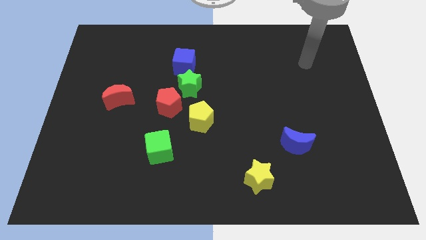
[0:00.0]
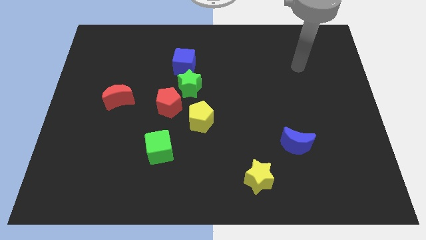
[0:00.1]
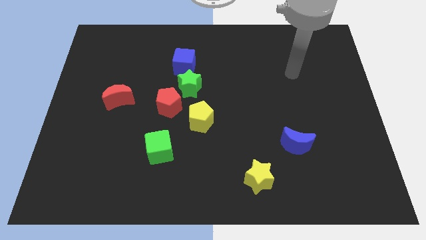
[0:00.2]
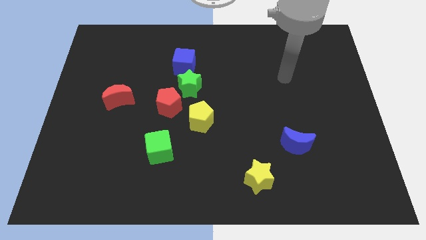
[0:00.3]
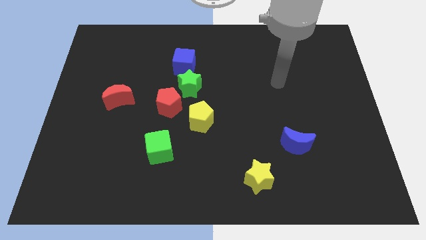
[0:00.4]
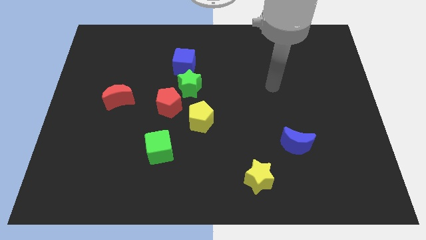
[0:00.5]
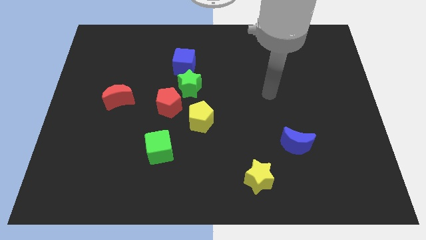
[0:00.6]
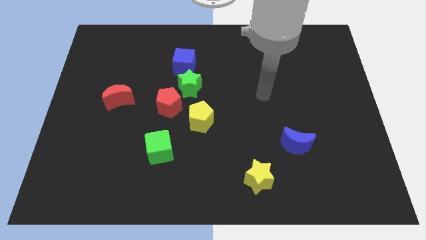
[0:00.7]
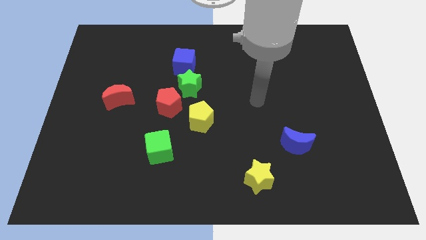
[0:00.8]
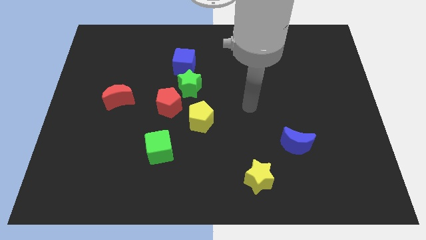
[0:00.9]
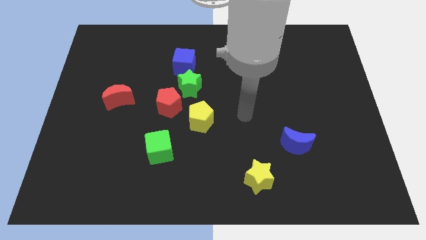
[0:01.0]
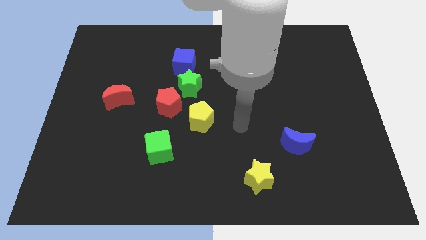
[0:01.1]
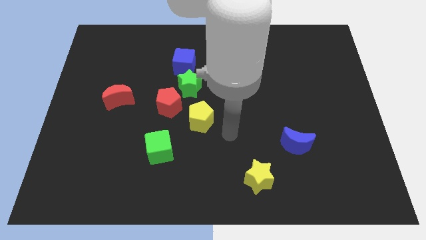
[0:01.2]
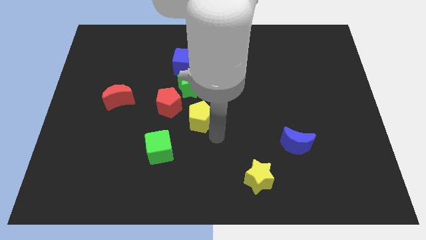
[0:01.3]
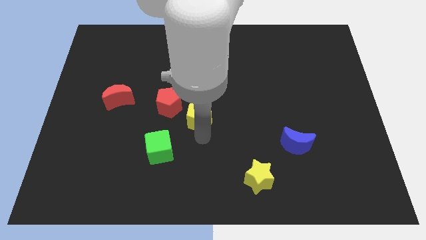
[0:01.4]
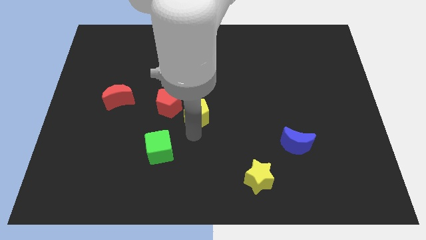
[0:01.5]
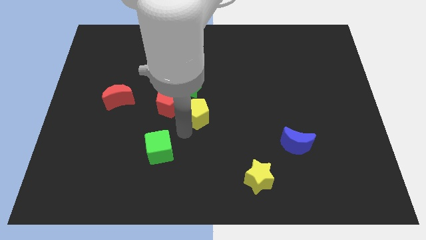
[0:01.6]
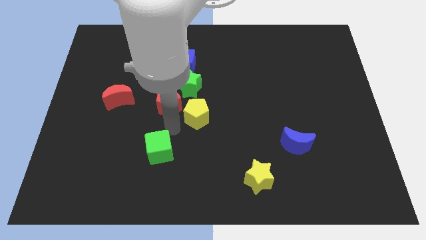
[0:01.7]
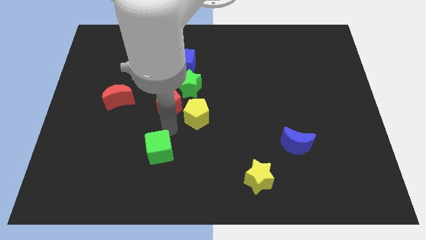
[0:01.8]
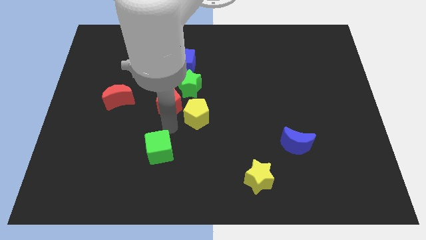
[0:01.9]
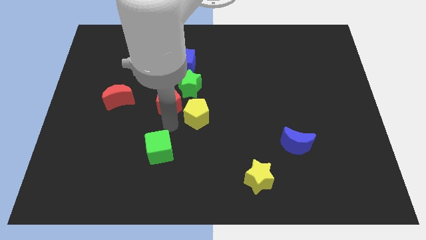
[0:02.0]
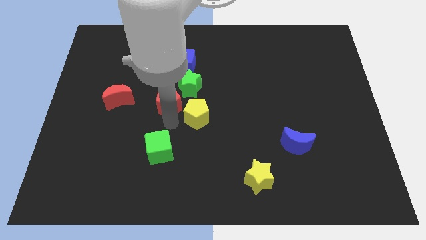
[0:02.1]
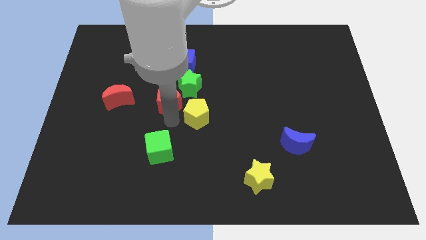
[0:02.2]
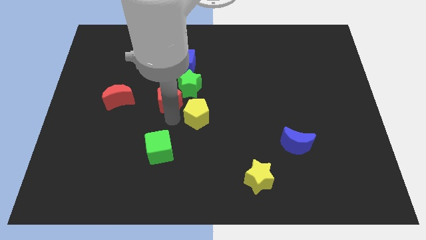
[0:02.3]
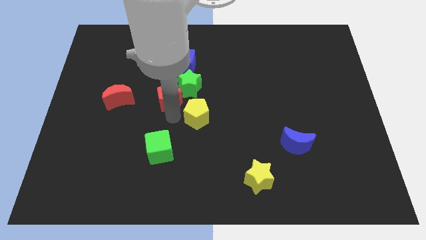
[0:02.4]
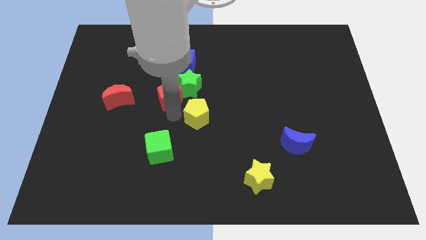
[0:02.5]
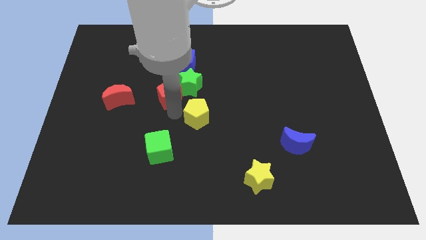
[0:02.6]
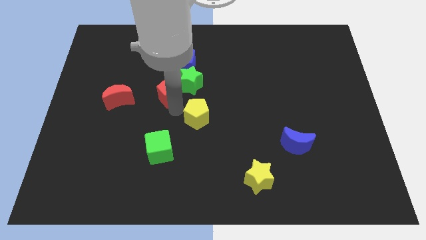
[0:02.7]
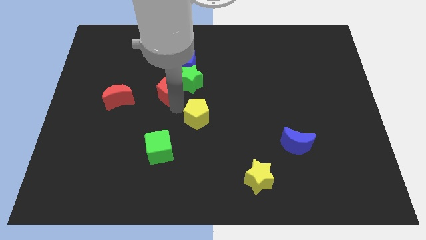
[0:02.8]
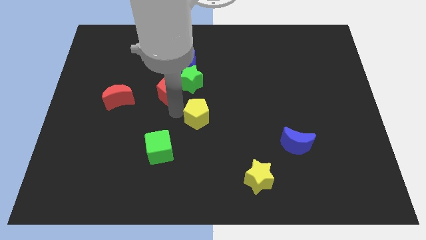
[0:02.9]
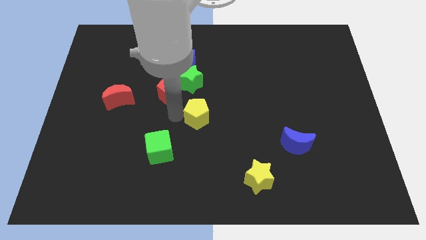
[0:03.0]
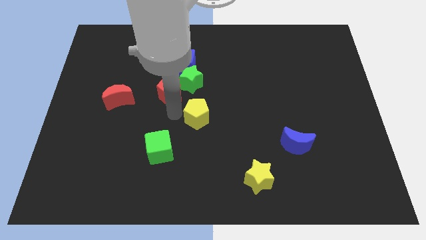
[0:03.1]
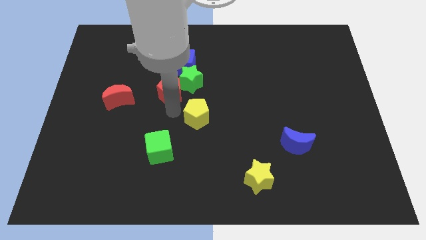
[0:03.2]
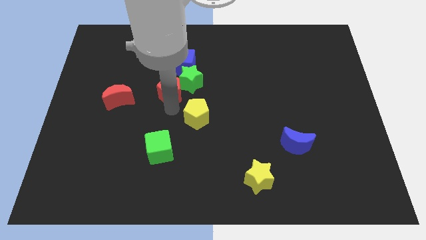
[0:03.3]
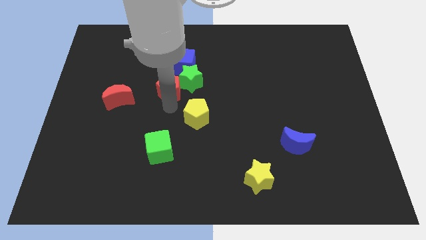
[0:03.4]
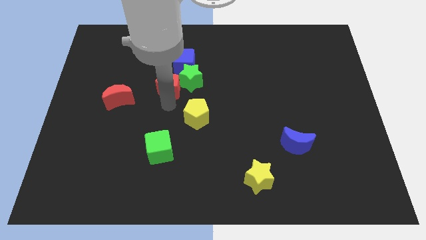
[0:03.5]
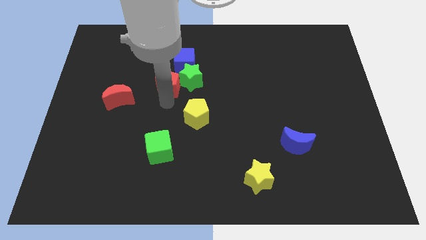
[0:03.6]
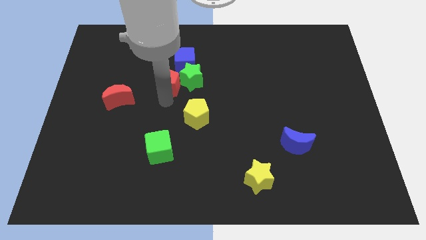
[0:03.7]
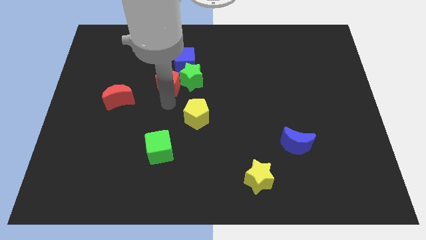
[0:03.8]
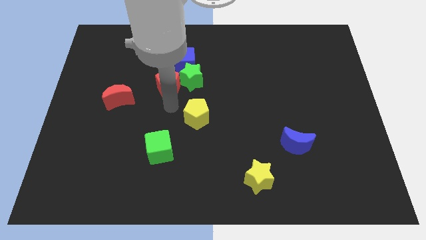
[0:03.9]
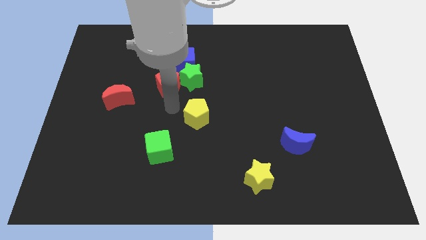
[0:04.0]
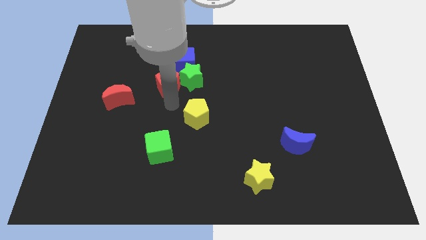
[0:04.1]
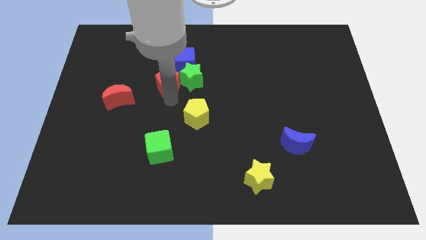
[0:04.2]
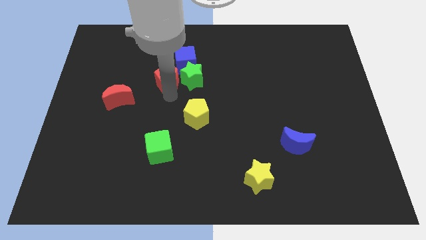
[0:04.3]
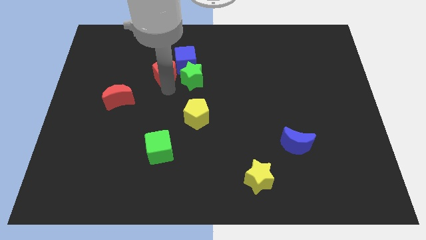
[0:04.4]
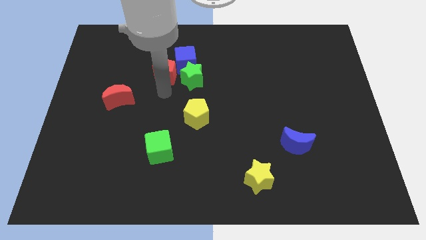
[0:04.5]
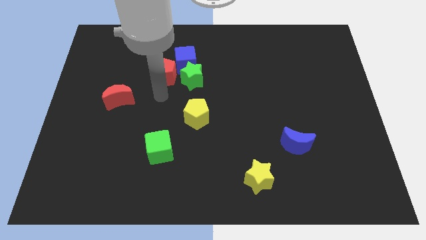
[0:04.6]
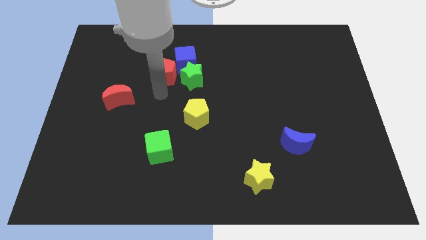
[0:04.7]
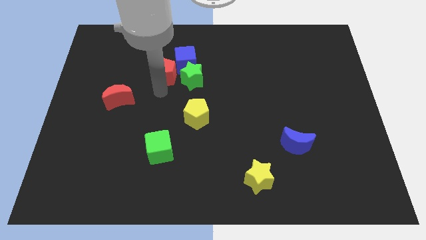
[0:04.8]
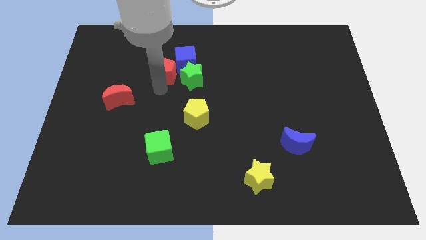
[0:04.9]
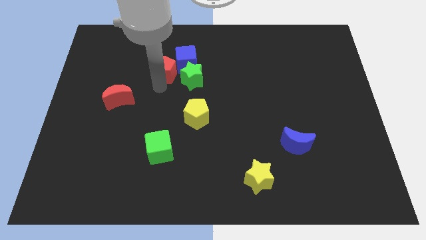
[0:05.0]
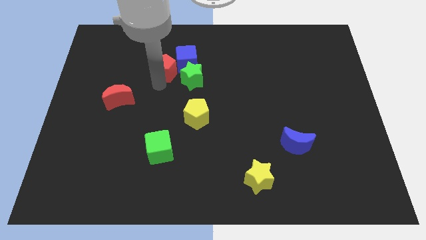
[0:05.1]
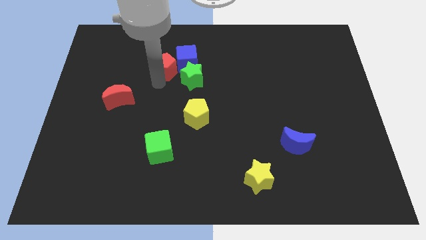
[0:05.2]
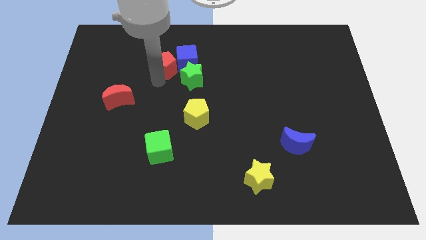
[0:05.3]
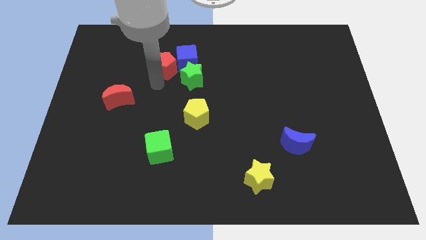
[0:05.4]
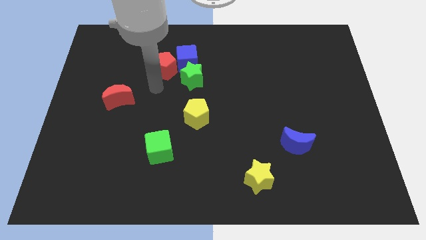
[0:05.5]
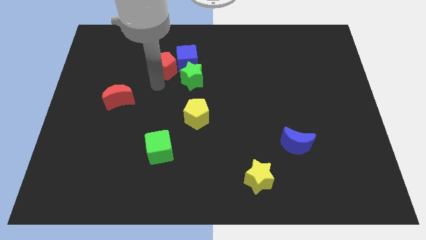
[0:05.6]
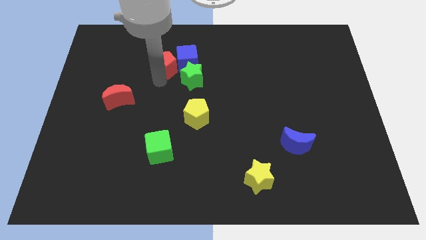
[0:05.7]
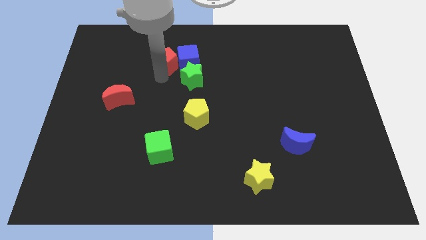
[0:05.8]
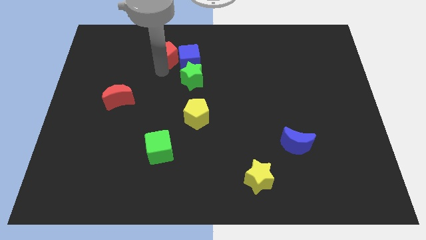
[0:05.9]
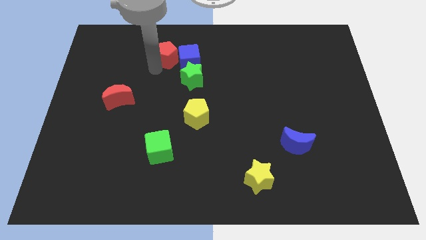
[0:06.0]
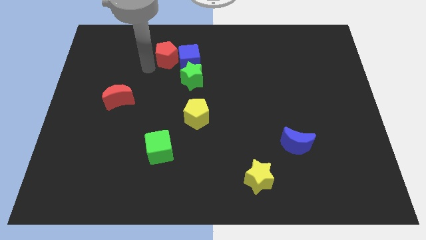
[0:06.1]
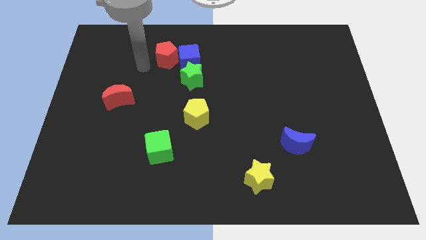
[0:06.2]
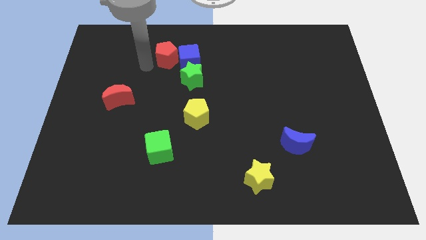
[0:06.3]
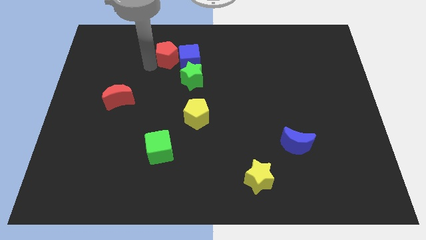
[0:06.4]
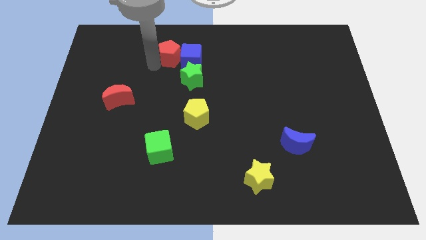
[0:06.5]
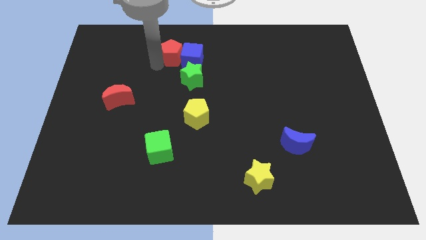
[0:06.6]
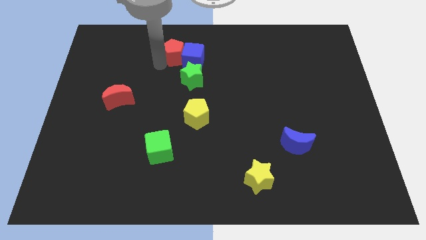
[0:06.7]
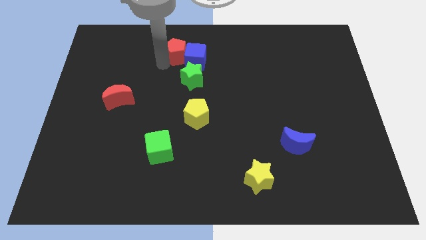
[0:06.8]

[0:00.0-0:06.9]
move the red pentagon above the green star

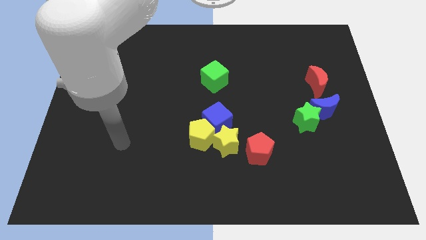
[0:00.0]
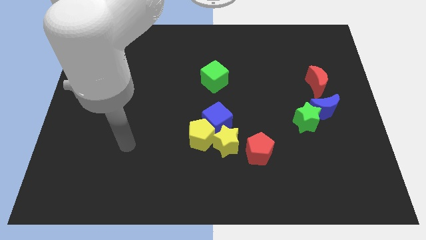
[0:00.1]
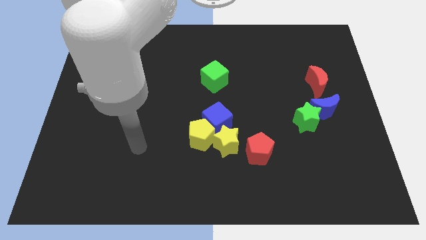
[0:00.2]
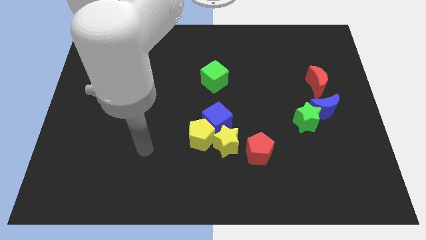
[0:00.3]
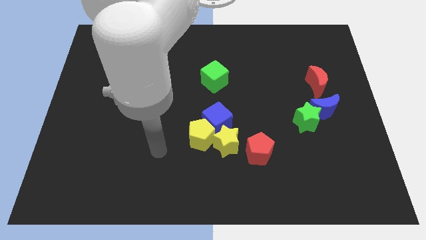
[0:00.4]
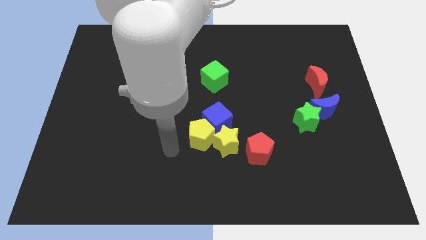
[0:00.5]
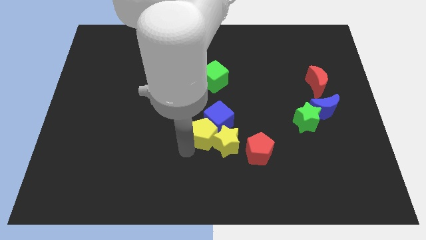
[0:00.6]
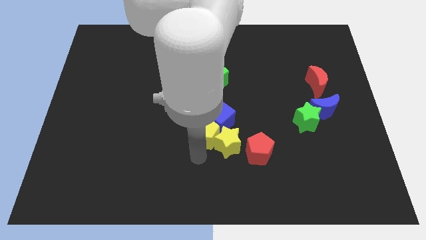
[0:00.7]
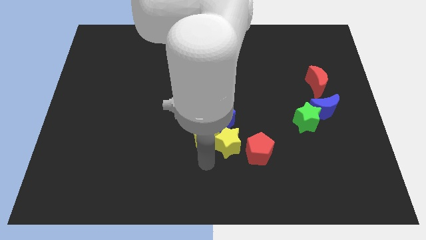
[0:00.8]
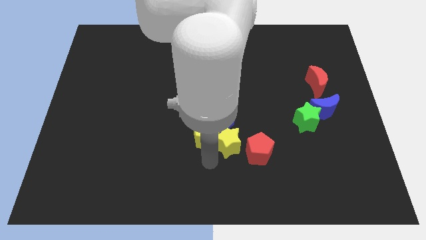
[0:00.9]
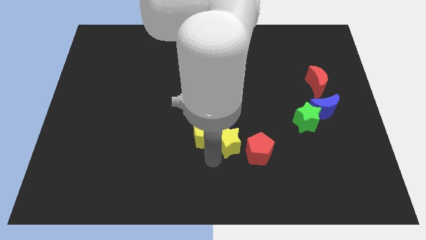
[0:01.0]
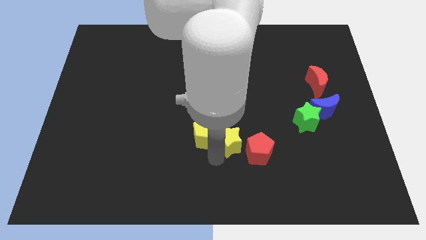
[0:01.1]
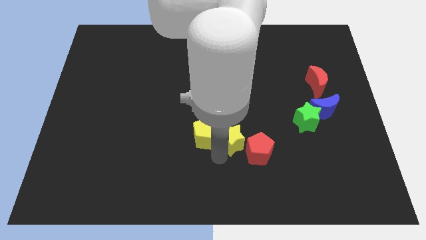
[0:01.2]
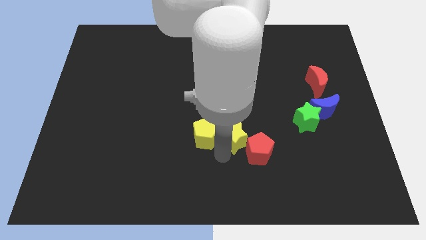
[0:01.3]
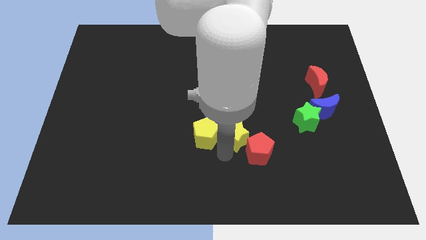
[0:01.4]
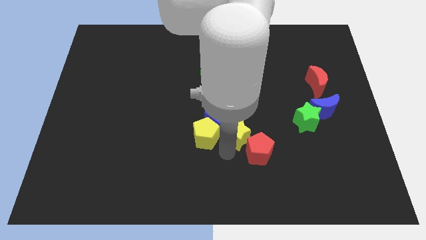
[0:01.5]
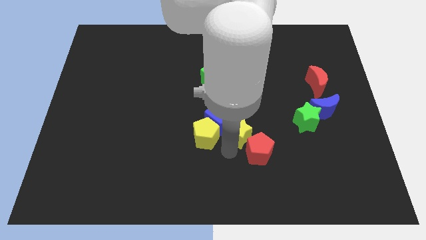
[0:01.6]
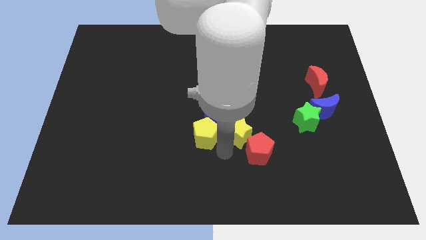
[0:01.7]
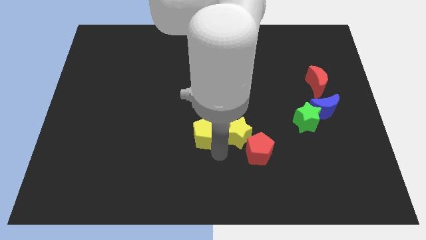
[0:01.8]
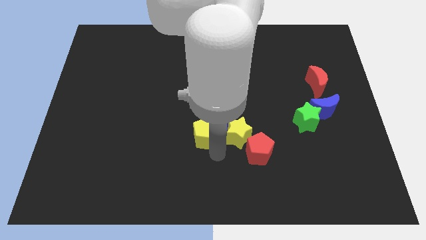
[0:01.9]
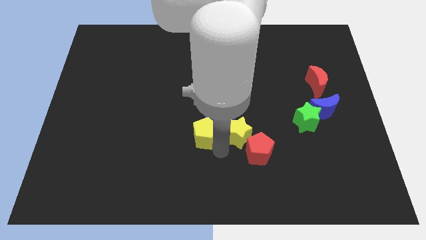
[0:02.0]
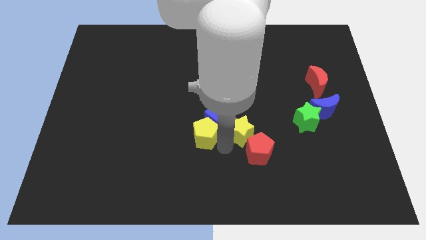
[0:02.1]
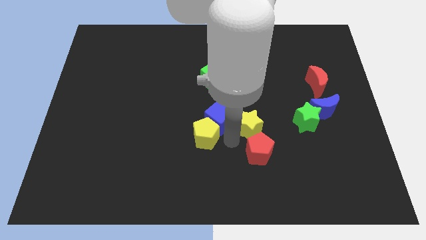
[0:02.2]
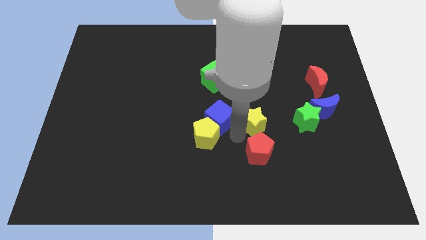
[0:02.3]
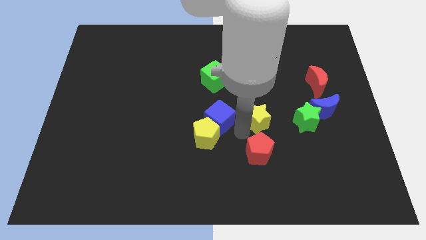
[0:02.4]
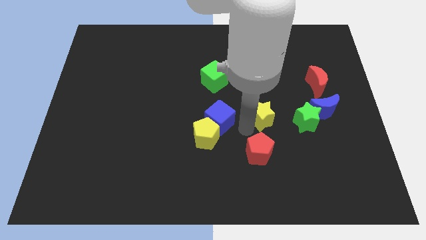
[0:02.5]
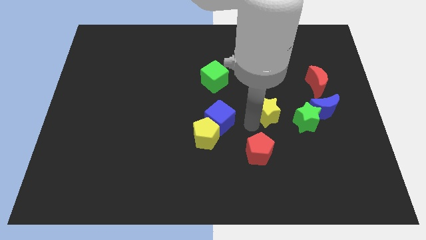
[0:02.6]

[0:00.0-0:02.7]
put the yellow star to the top left side of the green star
